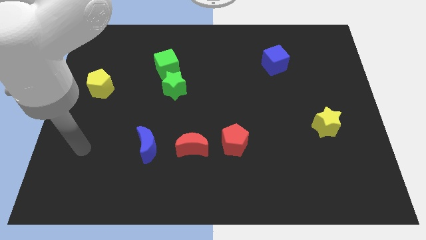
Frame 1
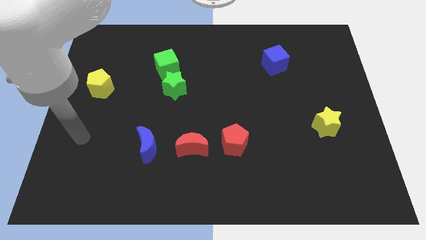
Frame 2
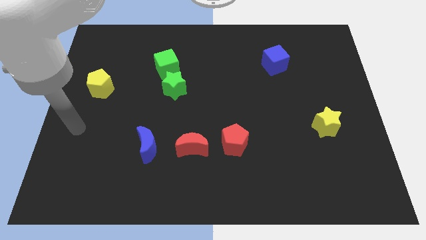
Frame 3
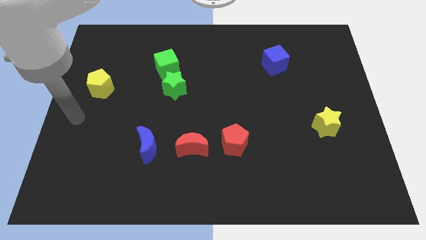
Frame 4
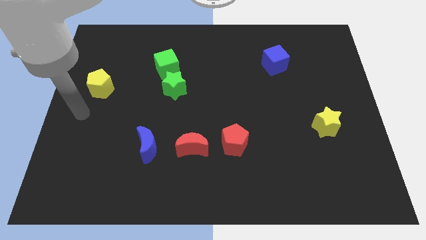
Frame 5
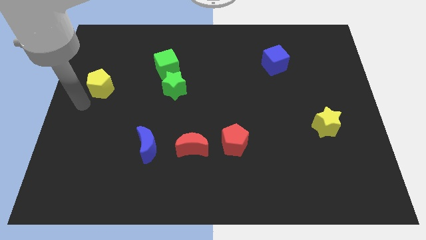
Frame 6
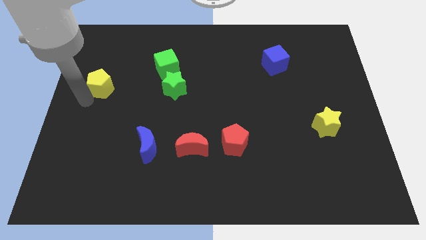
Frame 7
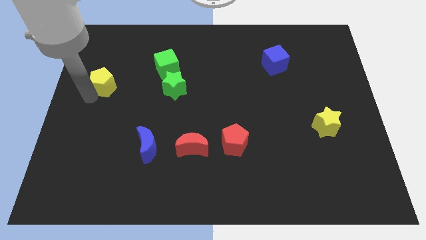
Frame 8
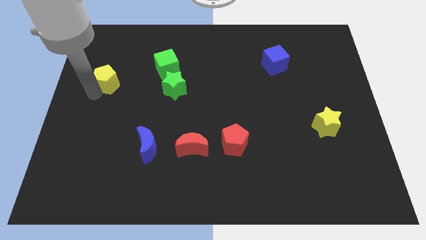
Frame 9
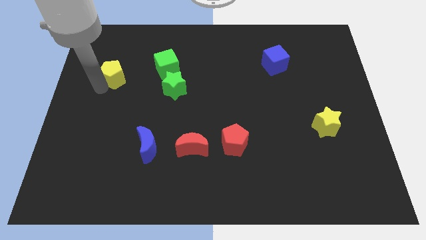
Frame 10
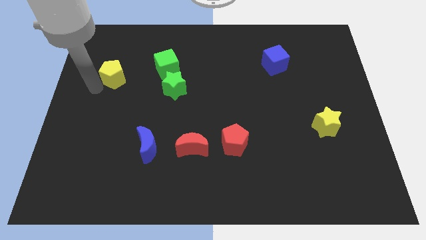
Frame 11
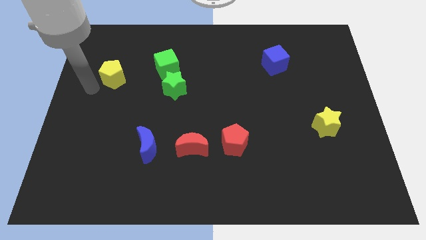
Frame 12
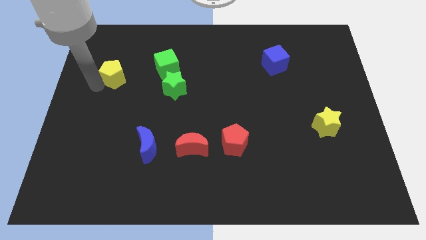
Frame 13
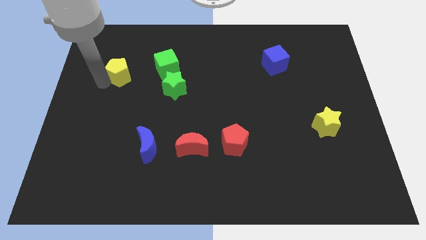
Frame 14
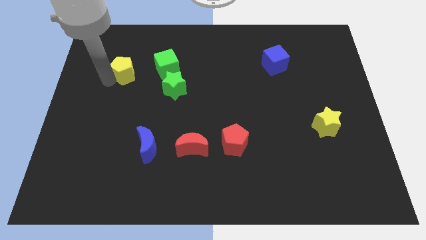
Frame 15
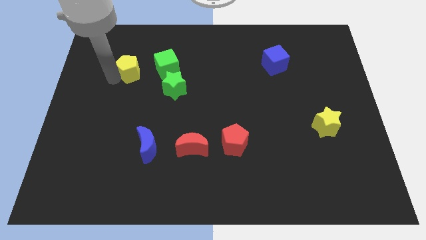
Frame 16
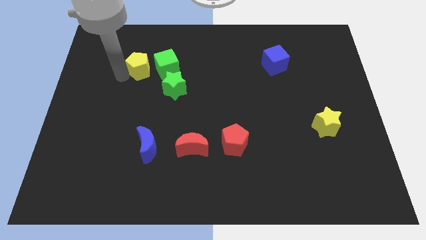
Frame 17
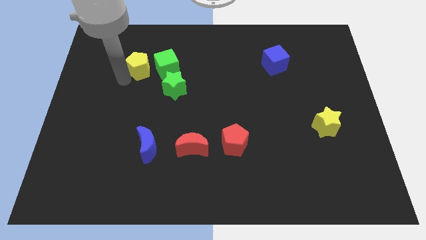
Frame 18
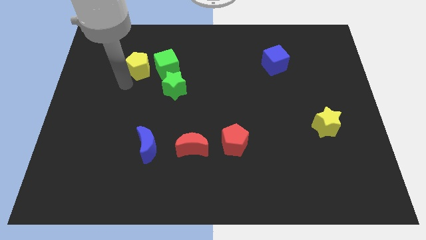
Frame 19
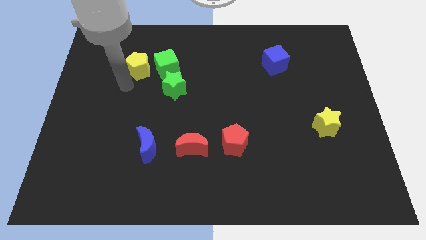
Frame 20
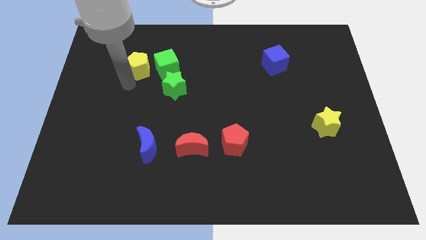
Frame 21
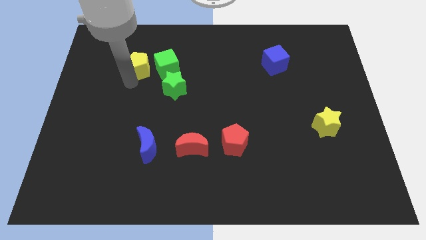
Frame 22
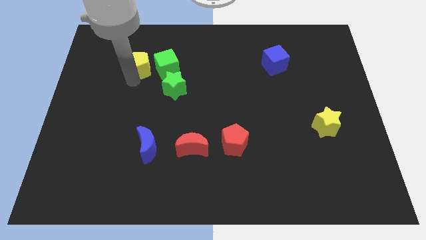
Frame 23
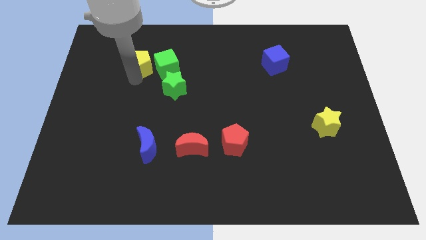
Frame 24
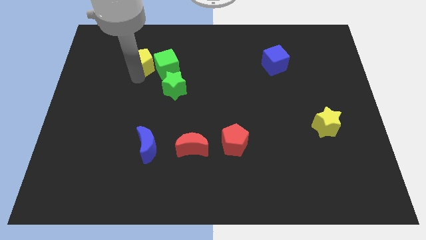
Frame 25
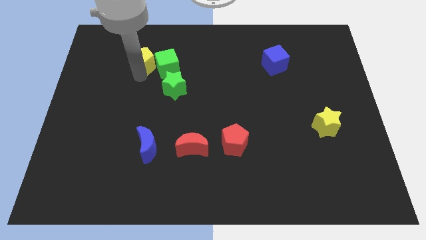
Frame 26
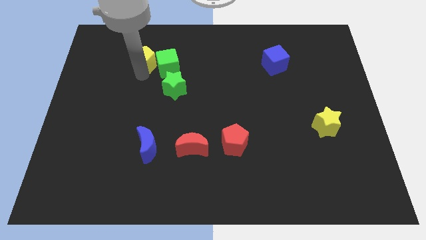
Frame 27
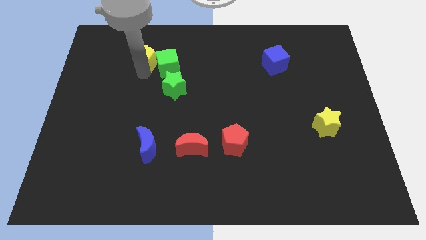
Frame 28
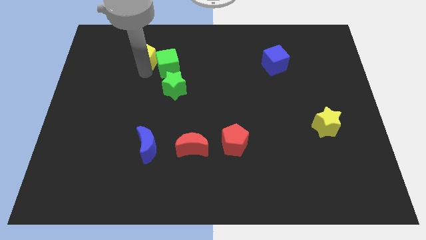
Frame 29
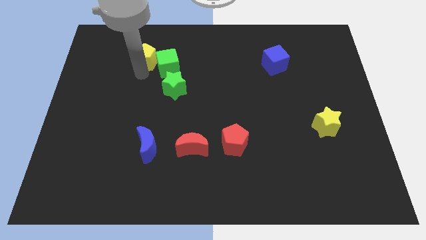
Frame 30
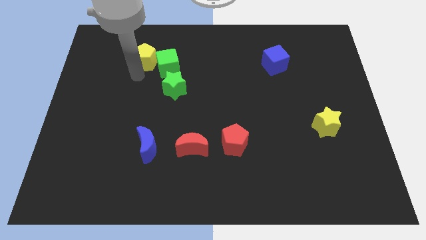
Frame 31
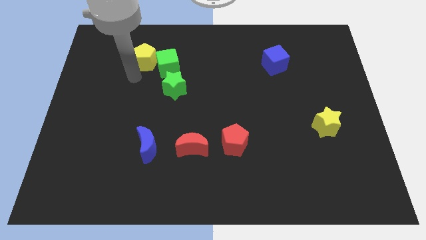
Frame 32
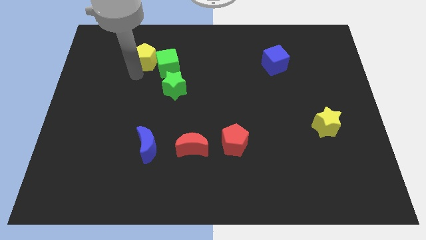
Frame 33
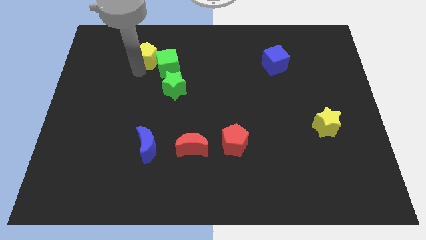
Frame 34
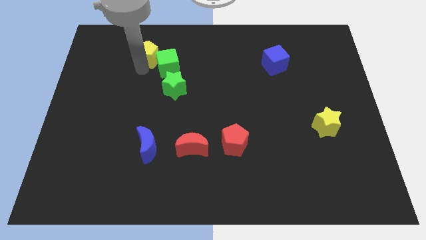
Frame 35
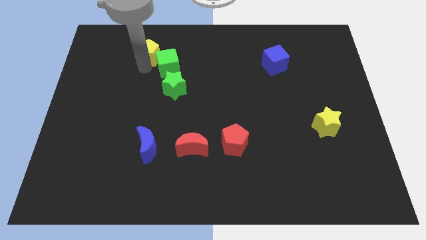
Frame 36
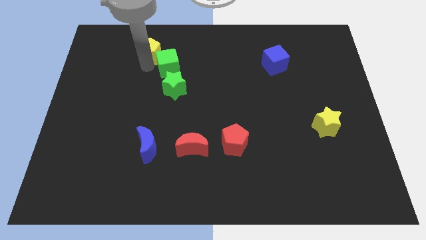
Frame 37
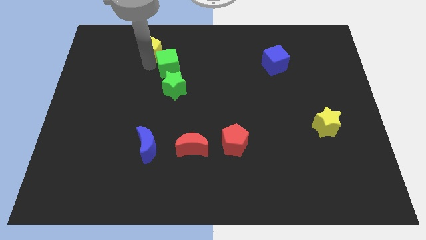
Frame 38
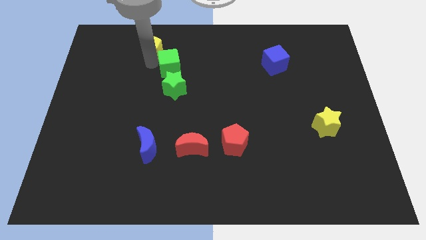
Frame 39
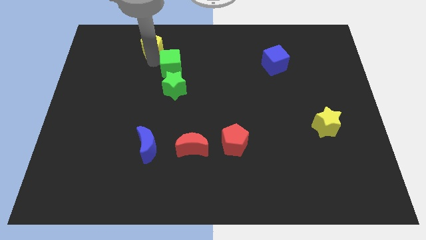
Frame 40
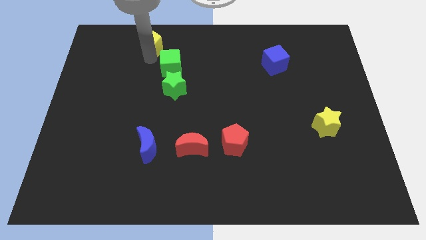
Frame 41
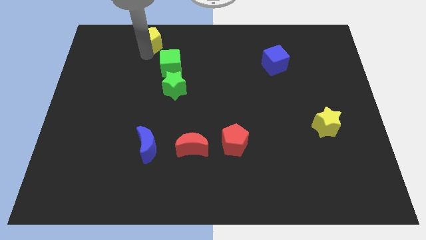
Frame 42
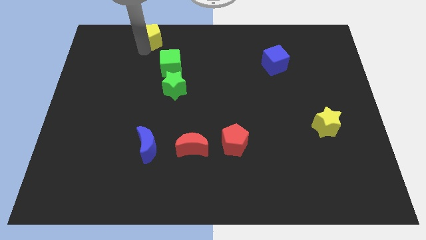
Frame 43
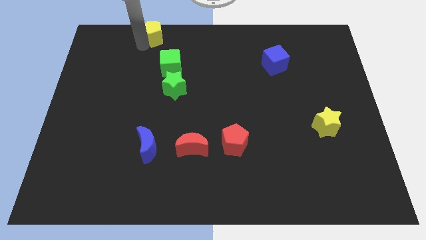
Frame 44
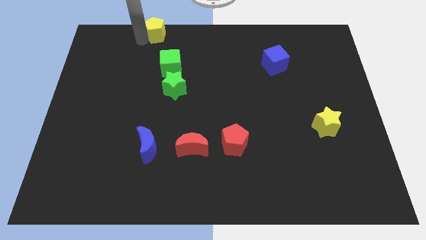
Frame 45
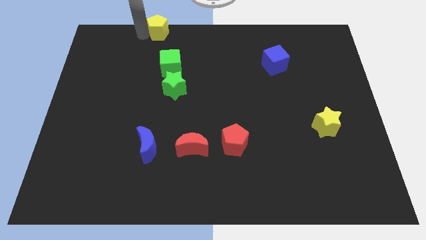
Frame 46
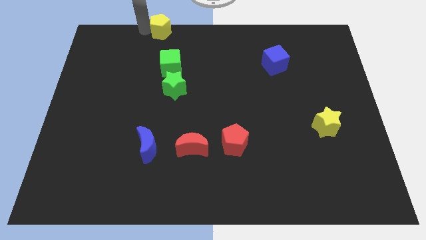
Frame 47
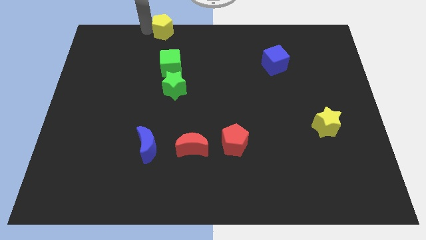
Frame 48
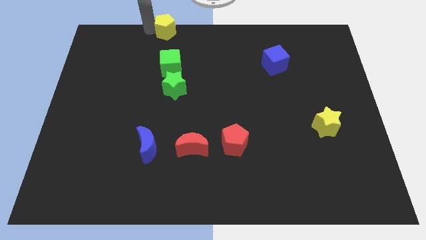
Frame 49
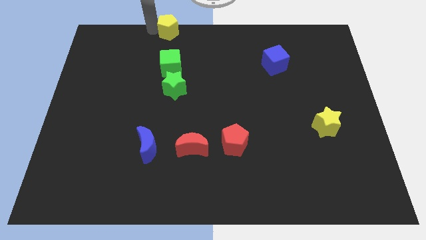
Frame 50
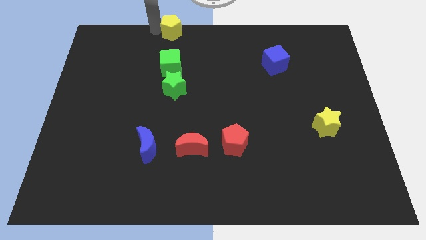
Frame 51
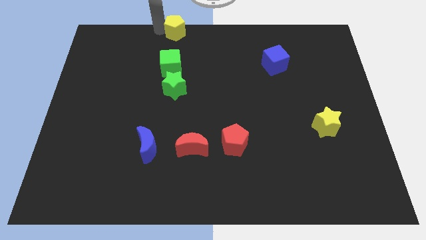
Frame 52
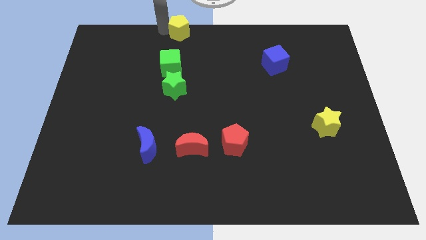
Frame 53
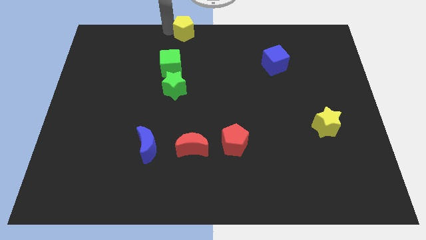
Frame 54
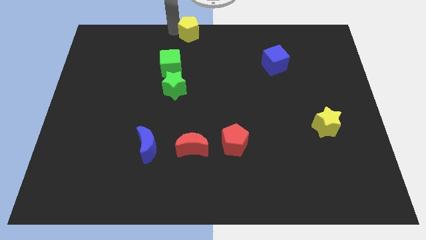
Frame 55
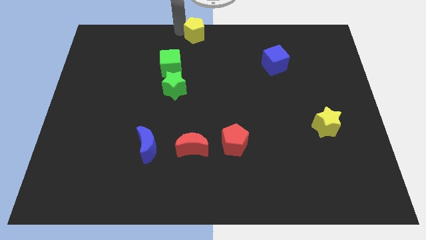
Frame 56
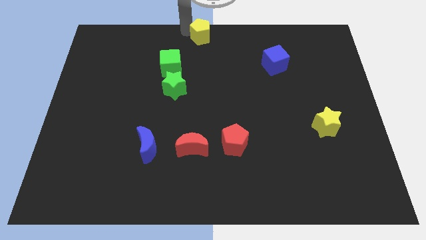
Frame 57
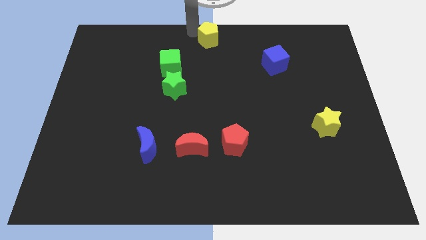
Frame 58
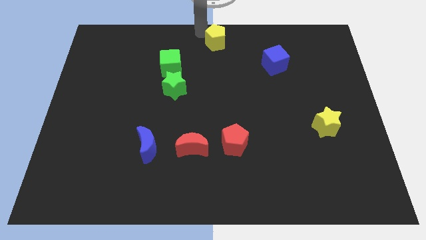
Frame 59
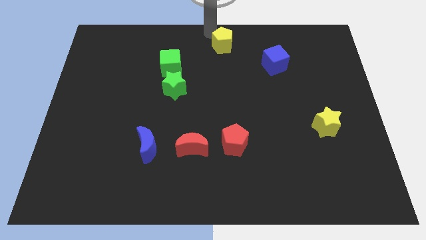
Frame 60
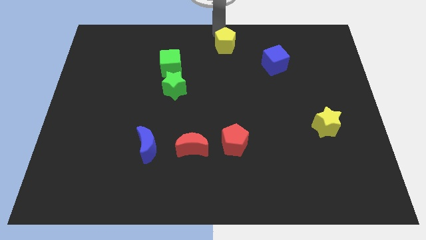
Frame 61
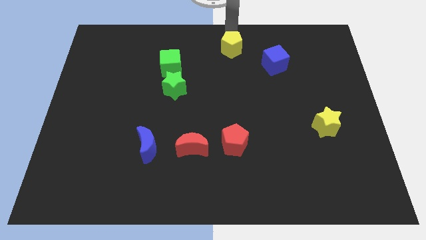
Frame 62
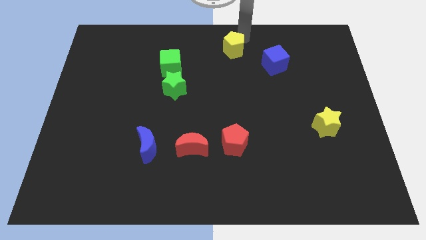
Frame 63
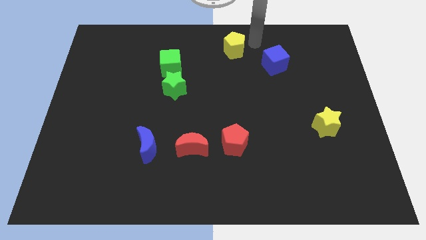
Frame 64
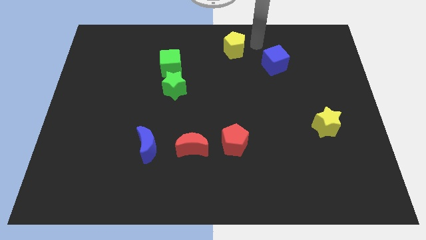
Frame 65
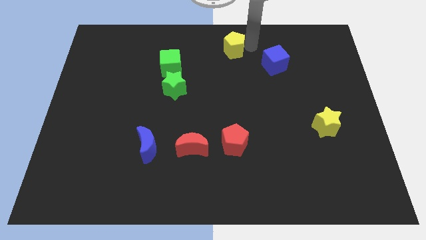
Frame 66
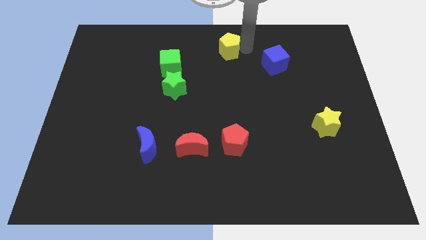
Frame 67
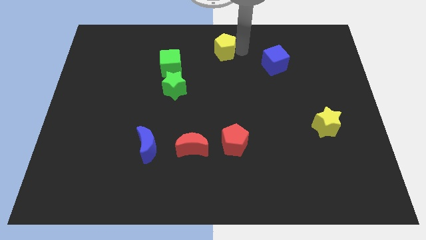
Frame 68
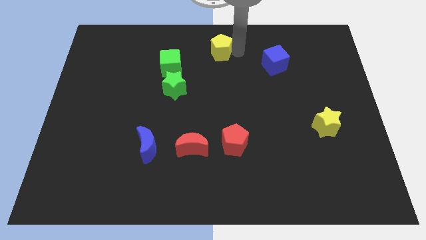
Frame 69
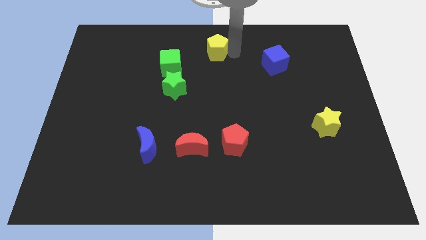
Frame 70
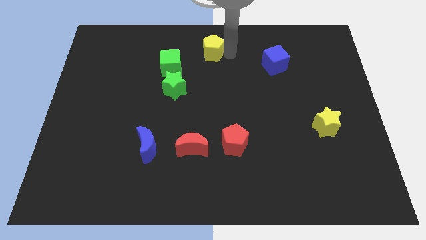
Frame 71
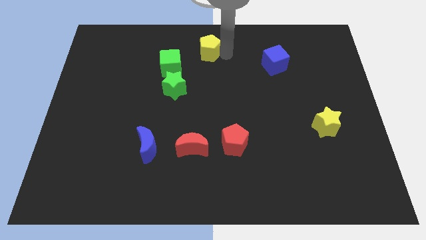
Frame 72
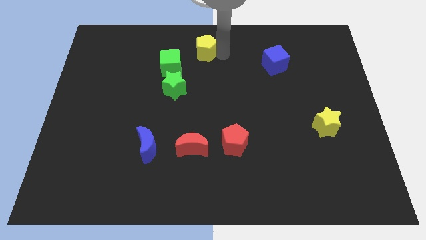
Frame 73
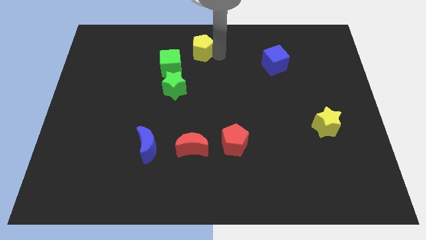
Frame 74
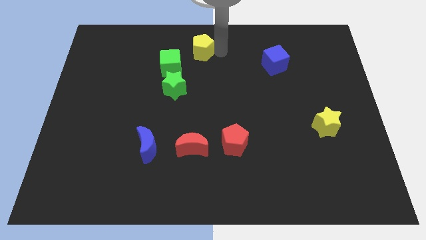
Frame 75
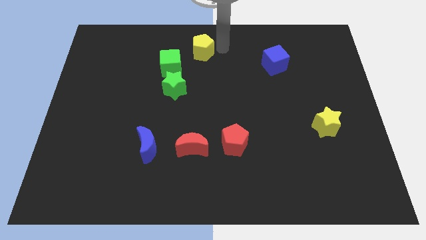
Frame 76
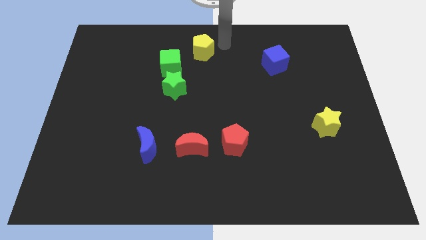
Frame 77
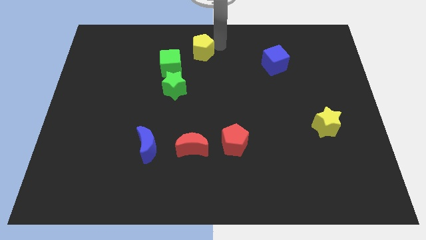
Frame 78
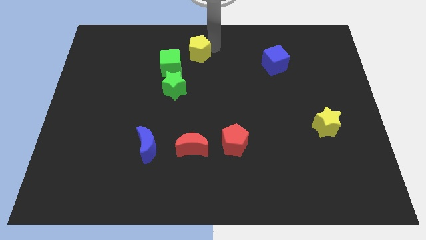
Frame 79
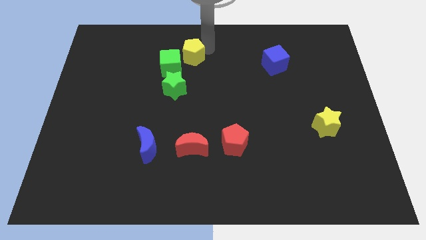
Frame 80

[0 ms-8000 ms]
slide the yellow pentagon above the green star
